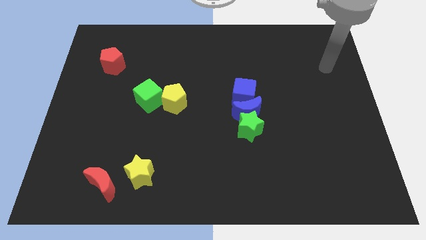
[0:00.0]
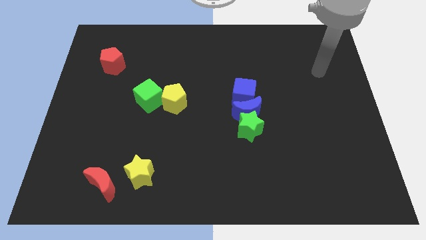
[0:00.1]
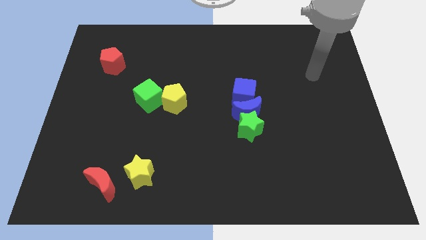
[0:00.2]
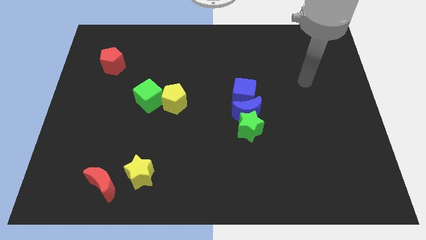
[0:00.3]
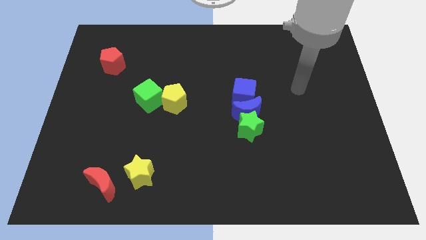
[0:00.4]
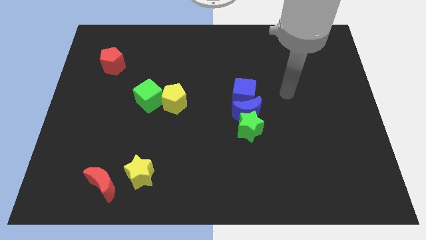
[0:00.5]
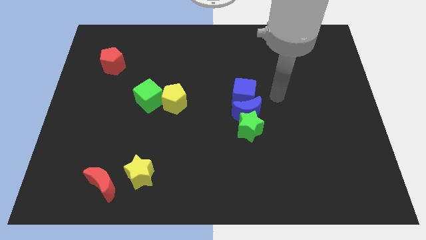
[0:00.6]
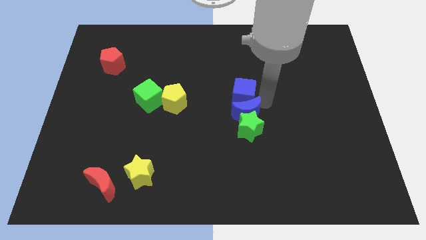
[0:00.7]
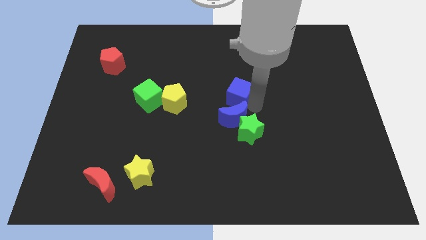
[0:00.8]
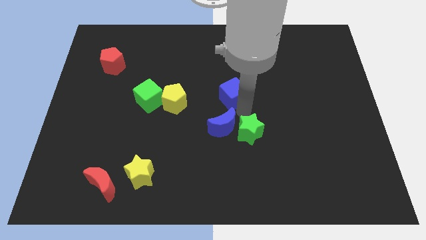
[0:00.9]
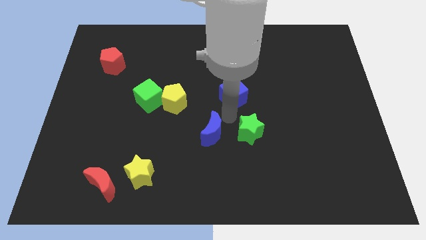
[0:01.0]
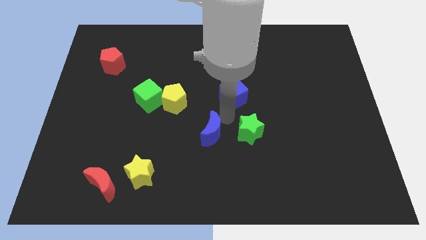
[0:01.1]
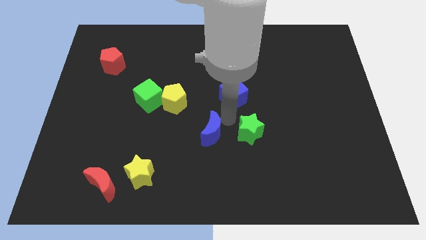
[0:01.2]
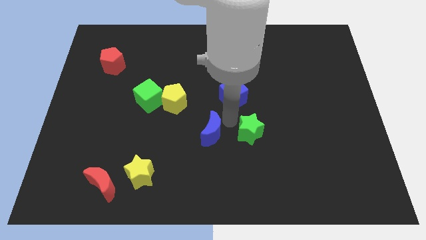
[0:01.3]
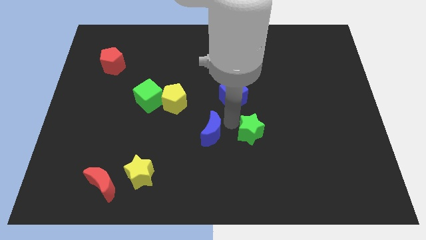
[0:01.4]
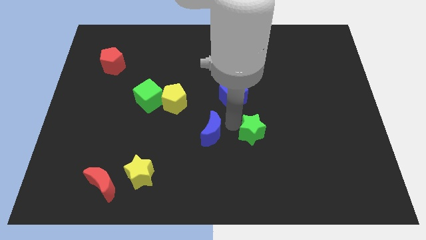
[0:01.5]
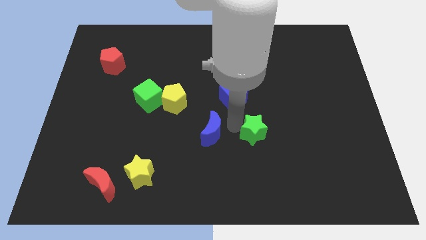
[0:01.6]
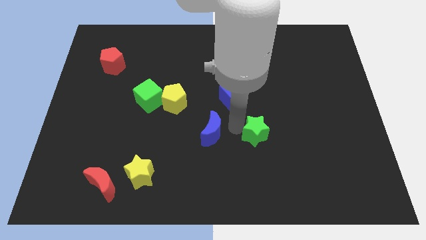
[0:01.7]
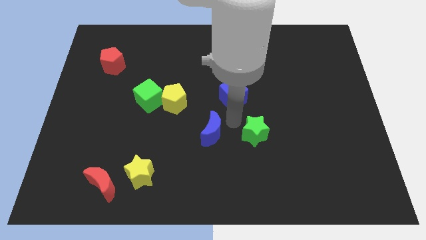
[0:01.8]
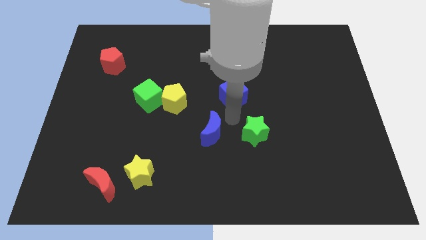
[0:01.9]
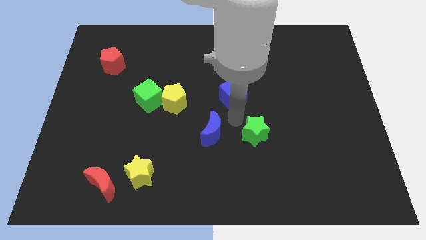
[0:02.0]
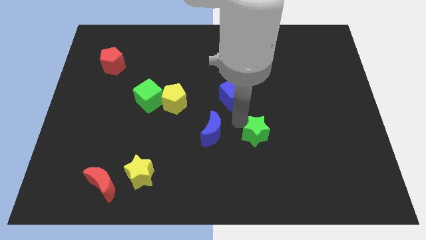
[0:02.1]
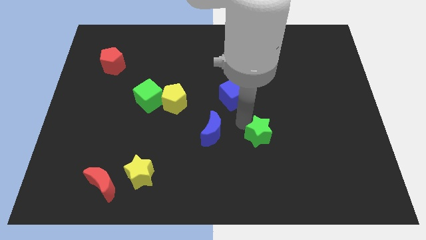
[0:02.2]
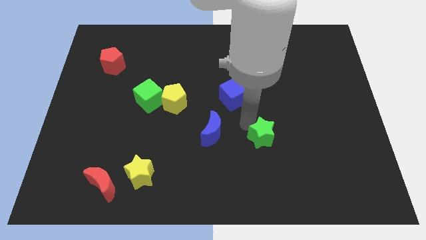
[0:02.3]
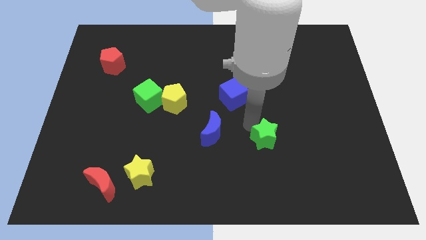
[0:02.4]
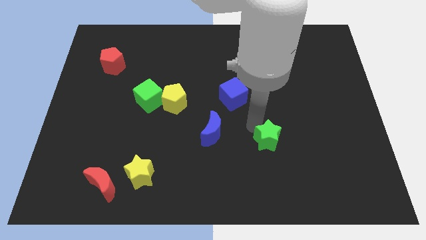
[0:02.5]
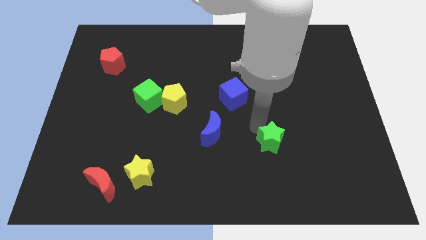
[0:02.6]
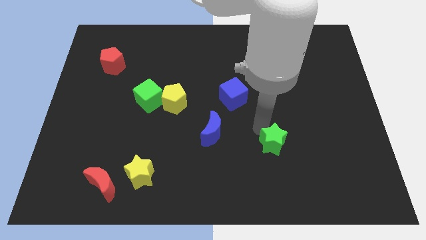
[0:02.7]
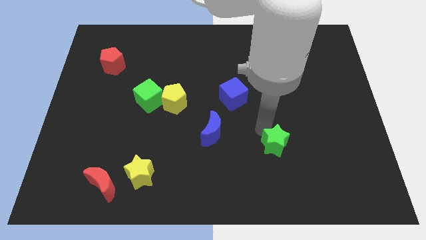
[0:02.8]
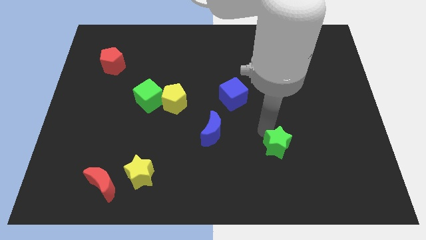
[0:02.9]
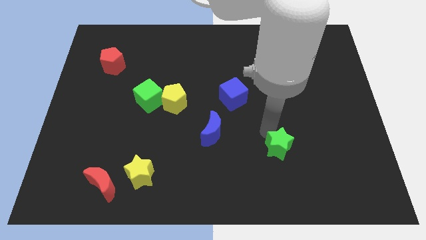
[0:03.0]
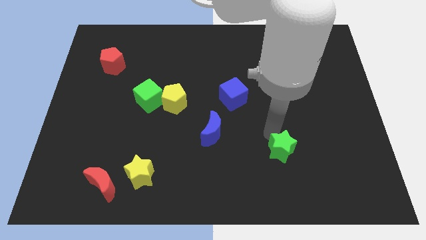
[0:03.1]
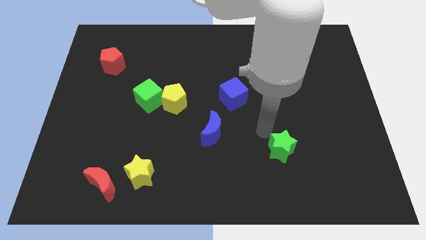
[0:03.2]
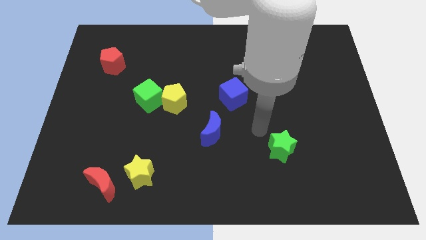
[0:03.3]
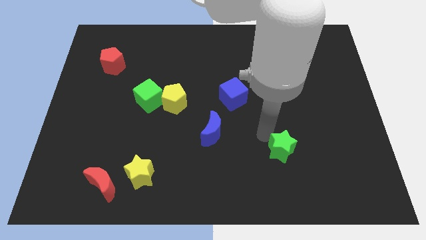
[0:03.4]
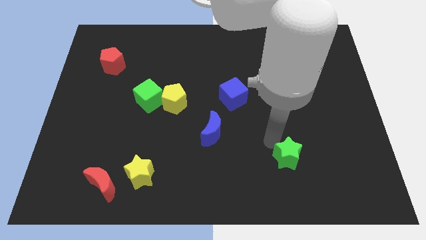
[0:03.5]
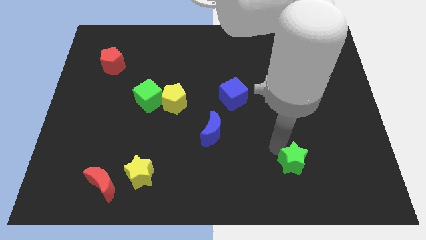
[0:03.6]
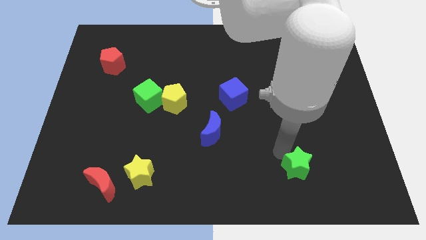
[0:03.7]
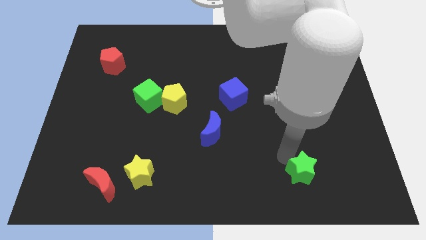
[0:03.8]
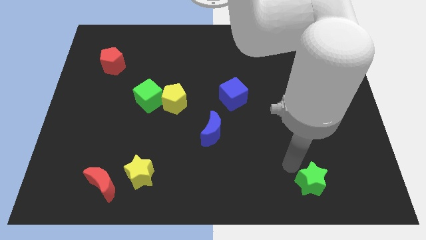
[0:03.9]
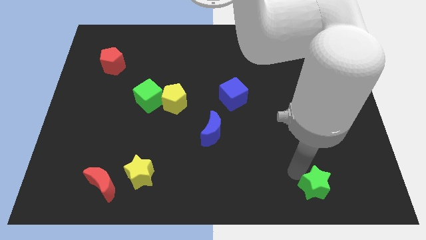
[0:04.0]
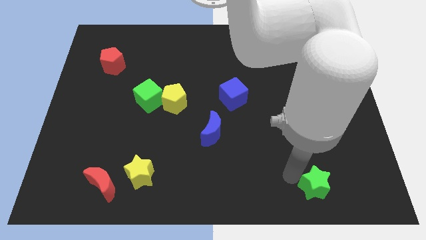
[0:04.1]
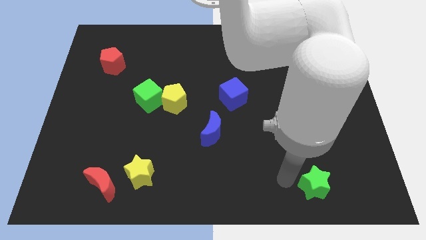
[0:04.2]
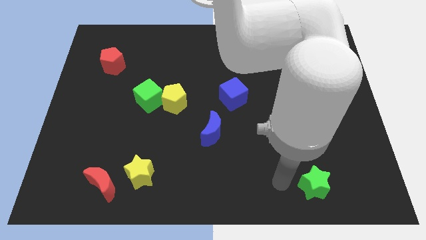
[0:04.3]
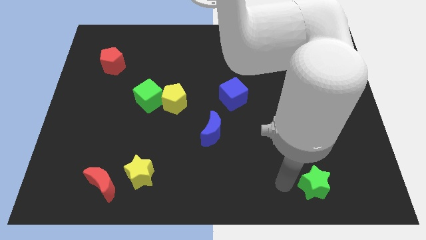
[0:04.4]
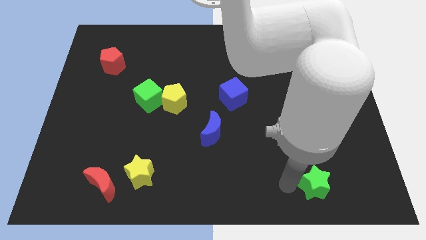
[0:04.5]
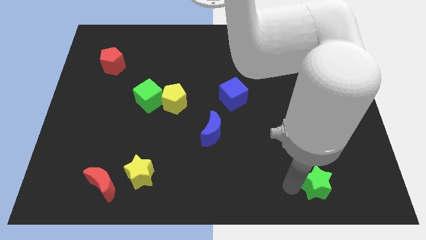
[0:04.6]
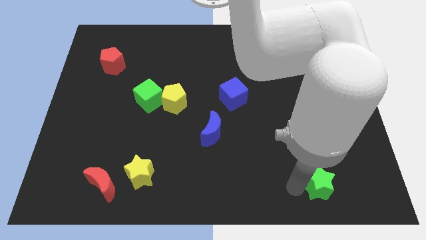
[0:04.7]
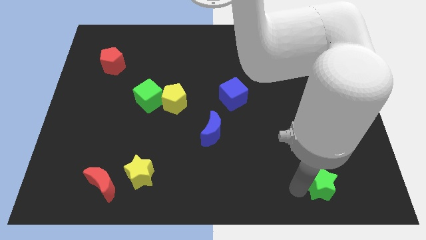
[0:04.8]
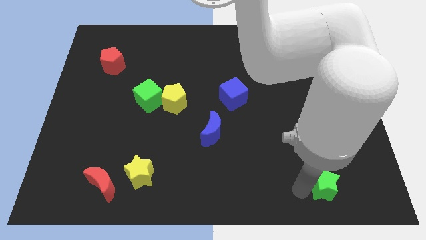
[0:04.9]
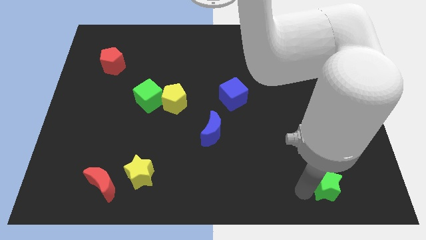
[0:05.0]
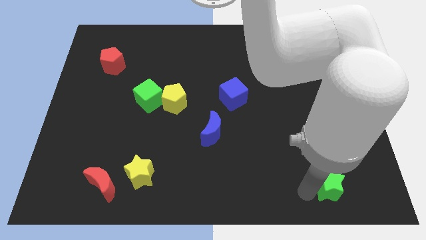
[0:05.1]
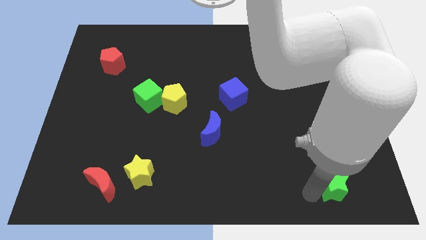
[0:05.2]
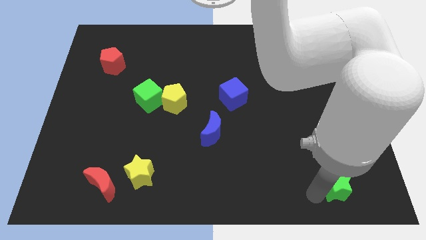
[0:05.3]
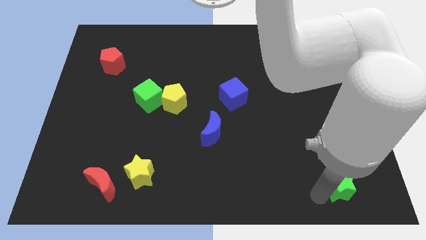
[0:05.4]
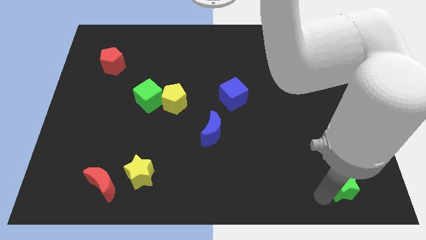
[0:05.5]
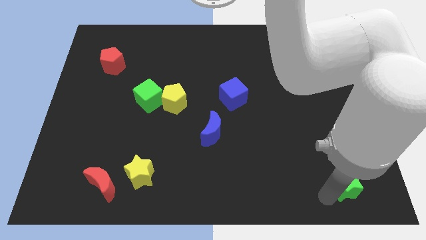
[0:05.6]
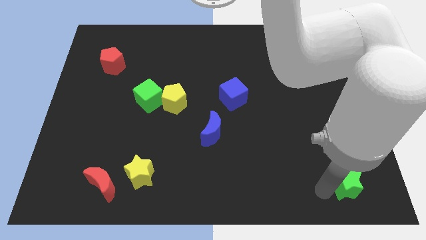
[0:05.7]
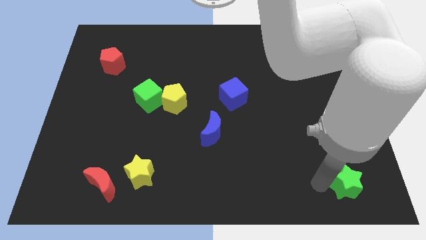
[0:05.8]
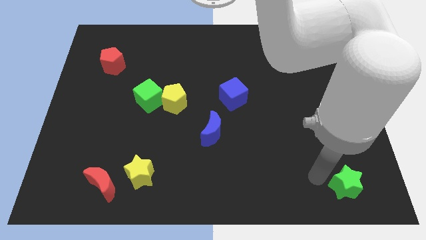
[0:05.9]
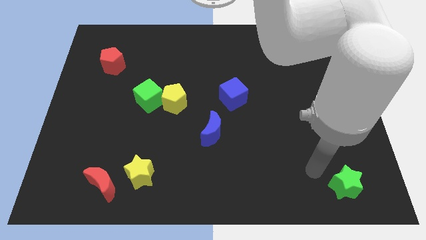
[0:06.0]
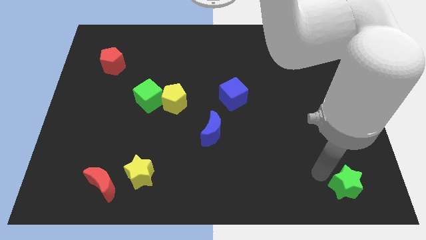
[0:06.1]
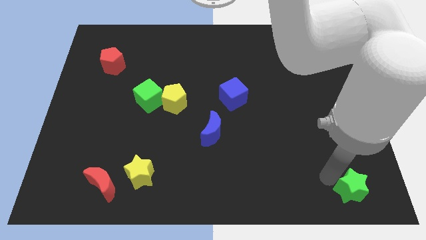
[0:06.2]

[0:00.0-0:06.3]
put the green star to the lower right corner
